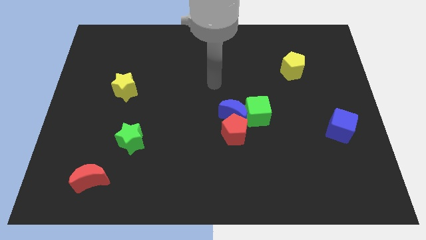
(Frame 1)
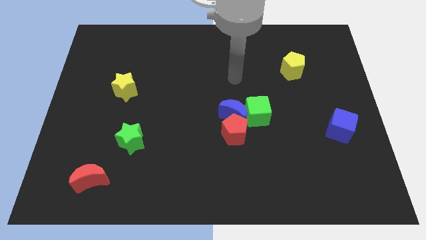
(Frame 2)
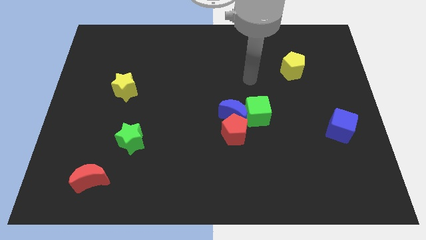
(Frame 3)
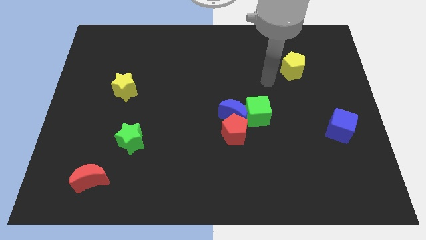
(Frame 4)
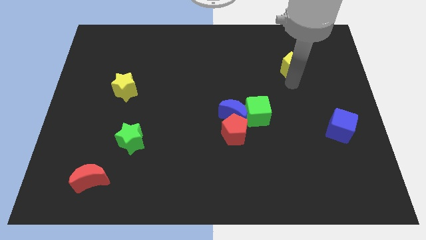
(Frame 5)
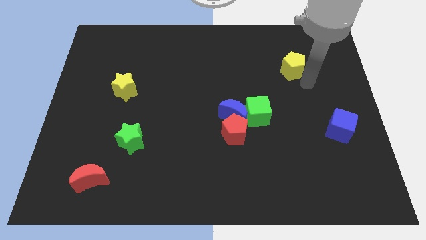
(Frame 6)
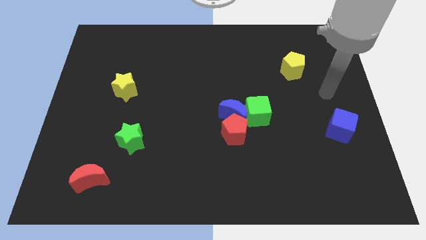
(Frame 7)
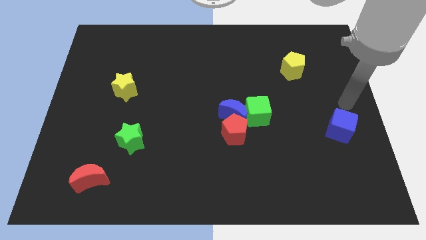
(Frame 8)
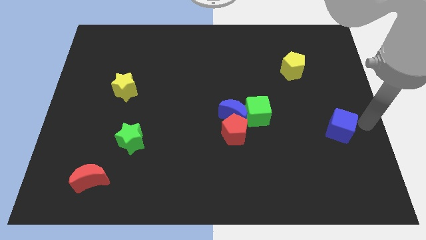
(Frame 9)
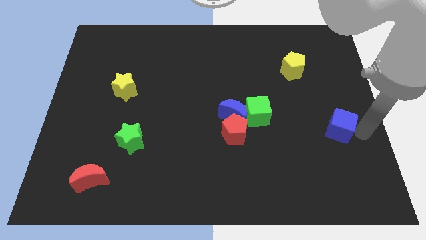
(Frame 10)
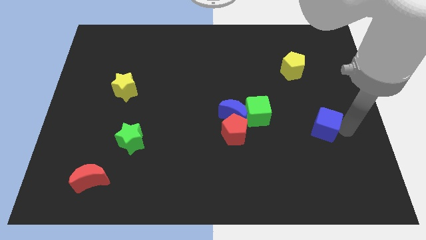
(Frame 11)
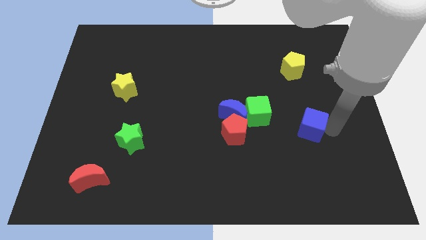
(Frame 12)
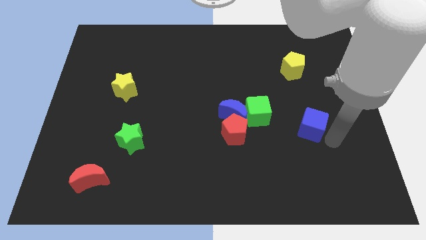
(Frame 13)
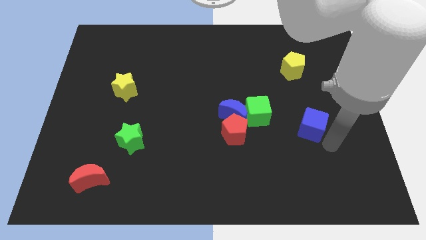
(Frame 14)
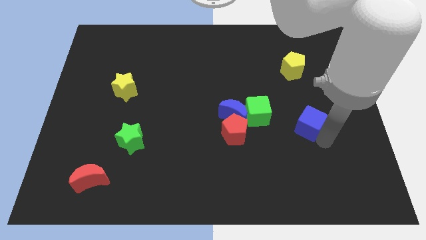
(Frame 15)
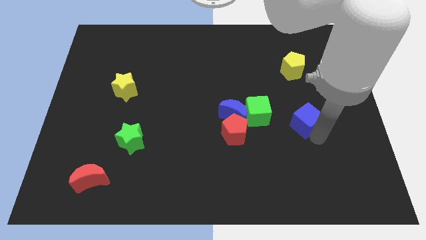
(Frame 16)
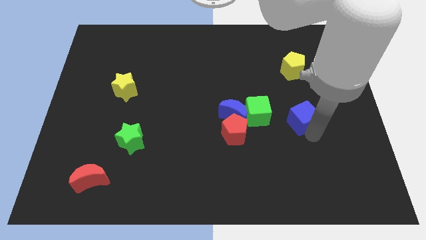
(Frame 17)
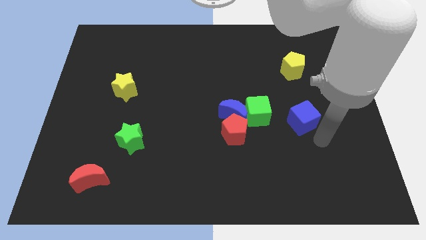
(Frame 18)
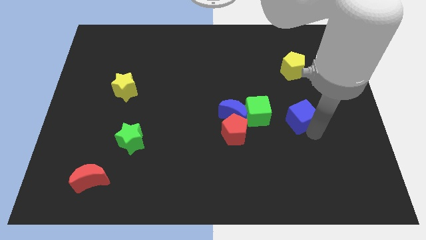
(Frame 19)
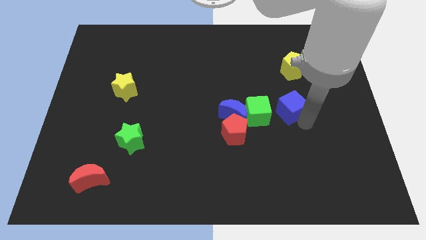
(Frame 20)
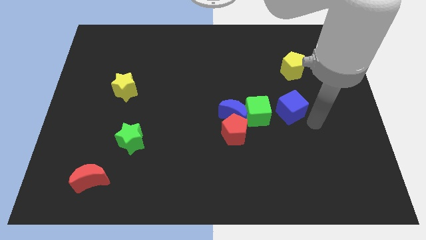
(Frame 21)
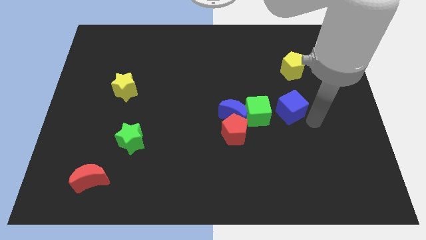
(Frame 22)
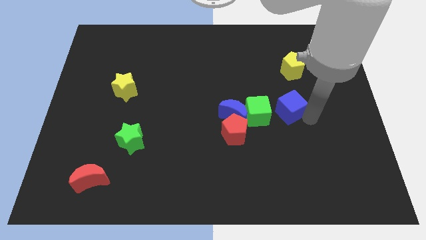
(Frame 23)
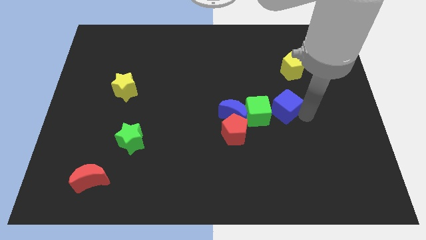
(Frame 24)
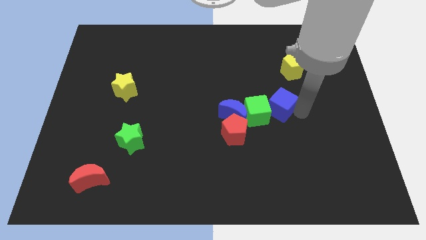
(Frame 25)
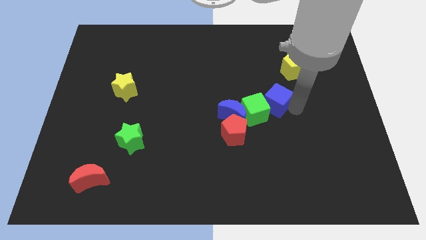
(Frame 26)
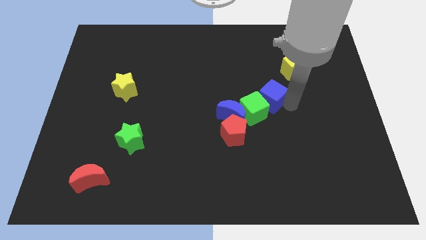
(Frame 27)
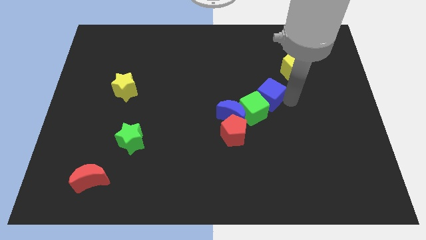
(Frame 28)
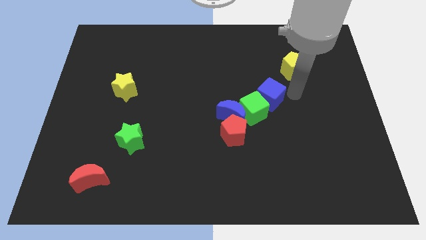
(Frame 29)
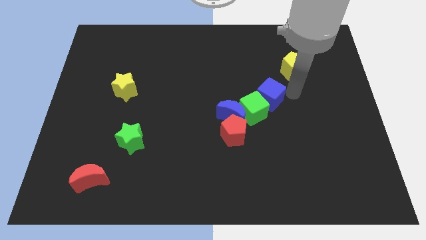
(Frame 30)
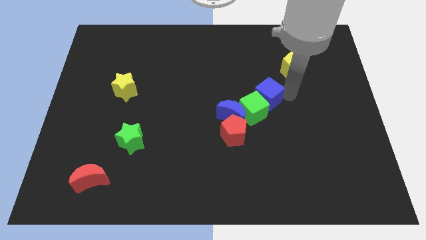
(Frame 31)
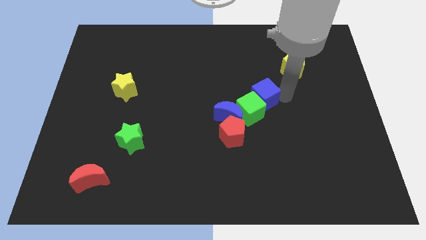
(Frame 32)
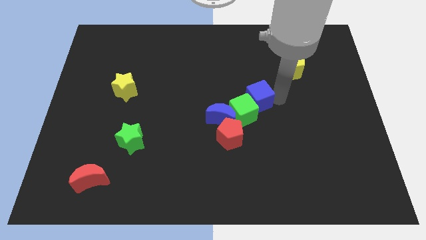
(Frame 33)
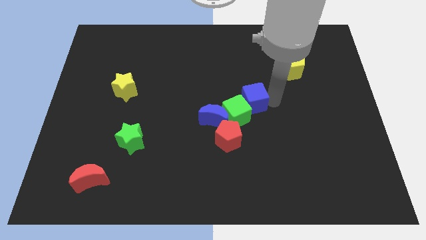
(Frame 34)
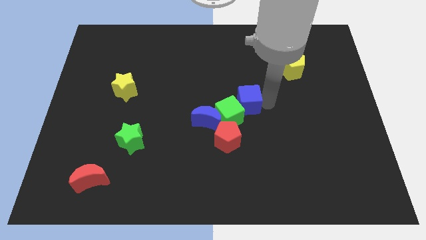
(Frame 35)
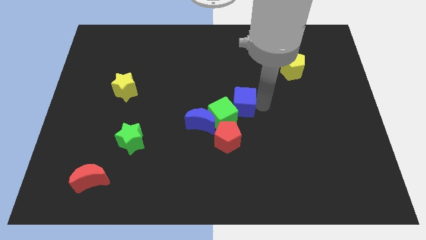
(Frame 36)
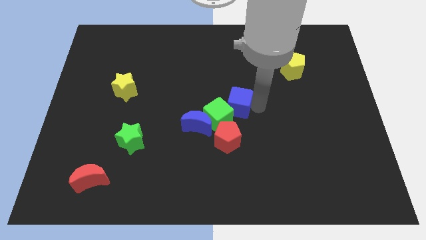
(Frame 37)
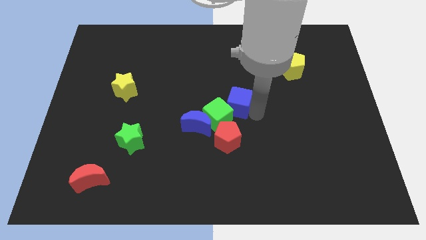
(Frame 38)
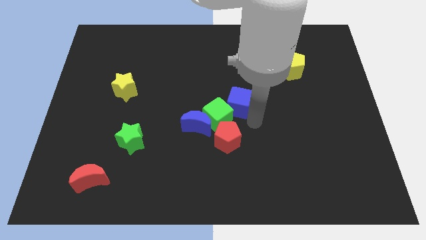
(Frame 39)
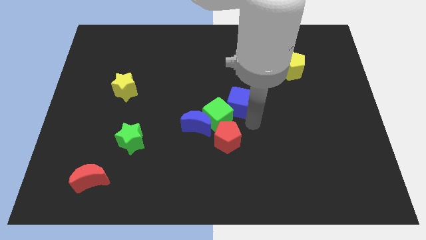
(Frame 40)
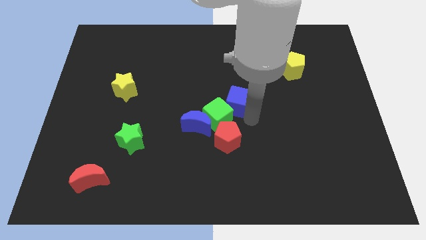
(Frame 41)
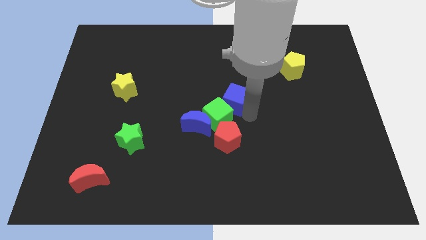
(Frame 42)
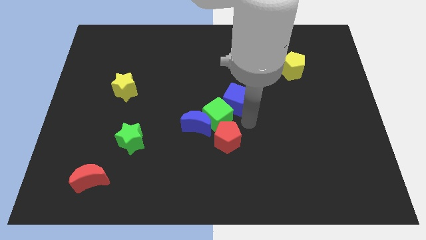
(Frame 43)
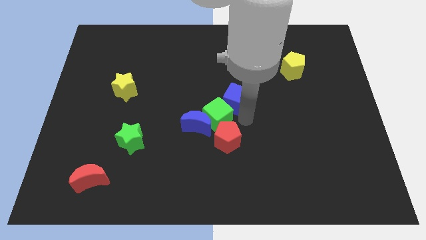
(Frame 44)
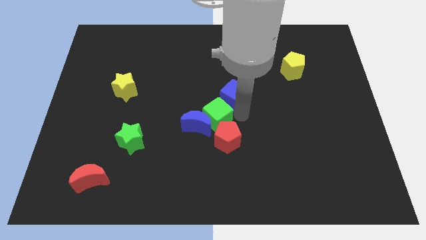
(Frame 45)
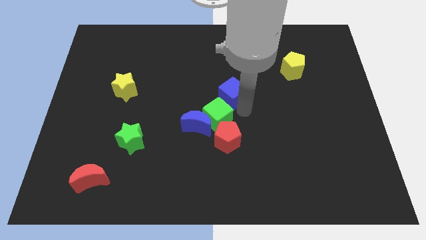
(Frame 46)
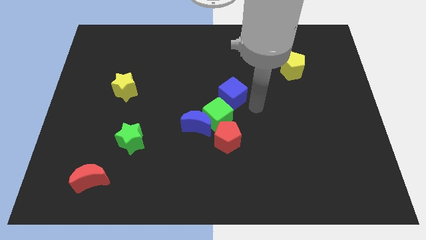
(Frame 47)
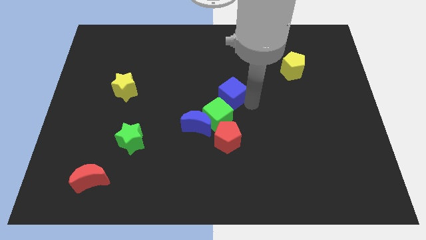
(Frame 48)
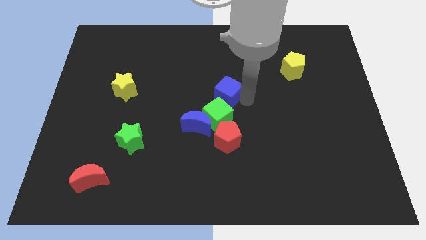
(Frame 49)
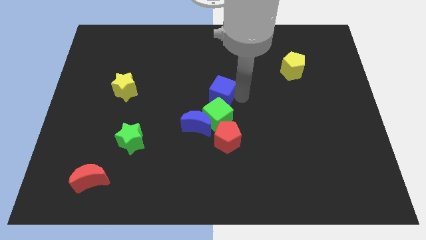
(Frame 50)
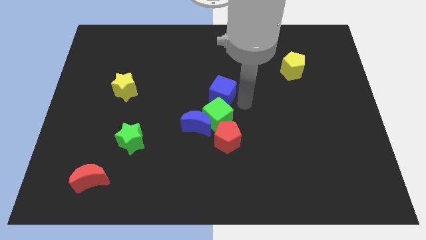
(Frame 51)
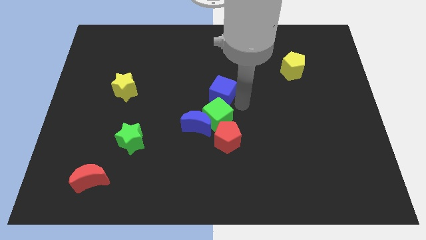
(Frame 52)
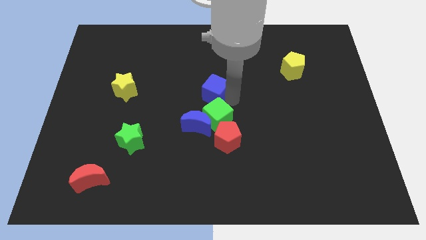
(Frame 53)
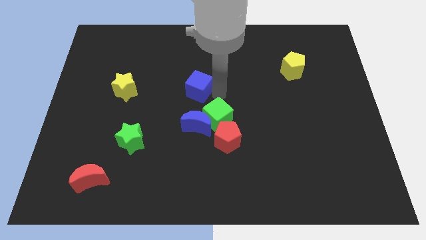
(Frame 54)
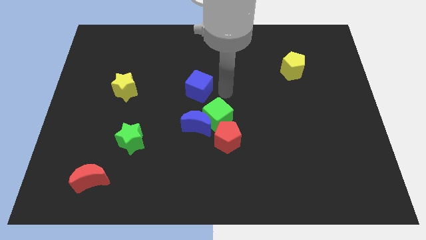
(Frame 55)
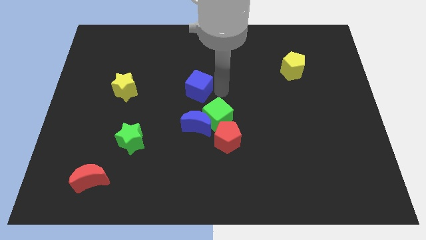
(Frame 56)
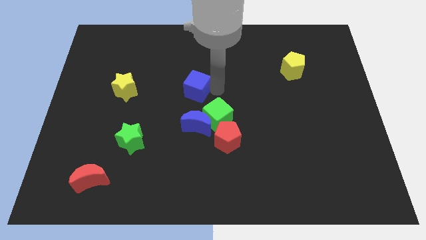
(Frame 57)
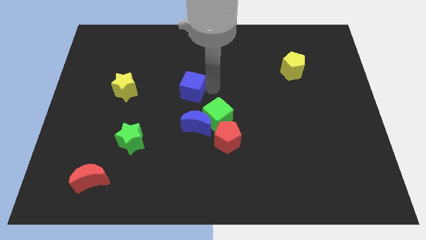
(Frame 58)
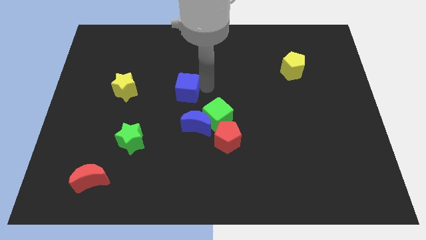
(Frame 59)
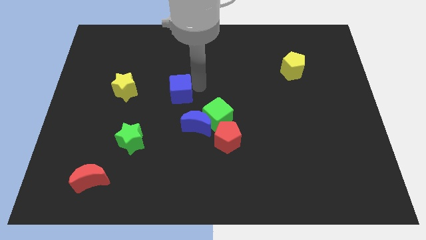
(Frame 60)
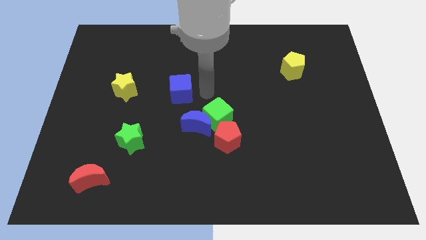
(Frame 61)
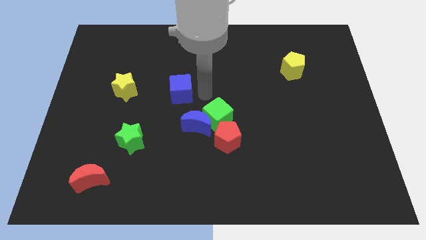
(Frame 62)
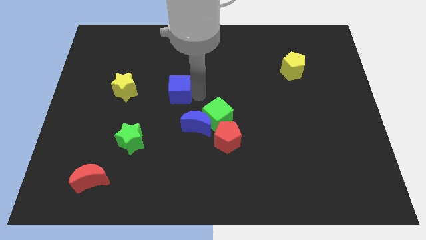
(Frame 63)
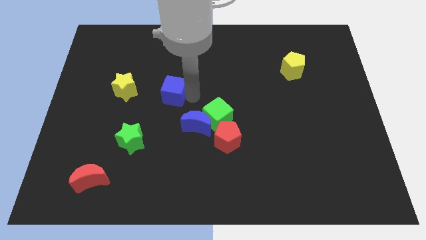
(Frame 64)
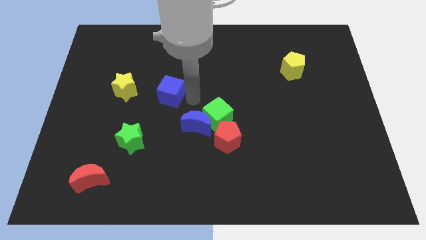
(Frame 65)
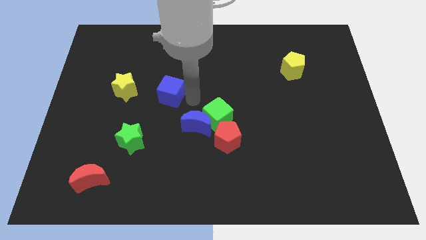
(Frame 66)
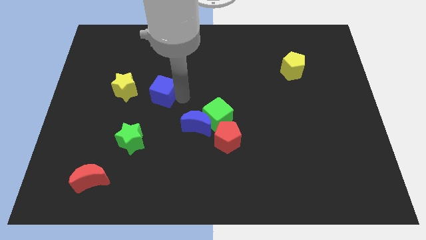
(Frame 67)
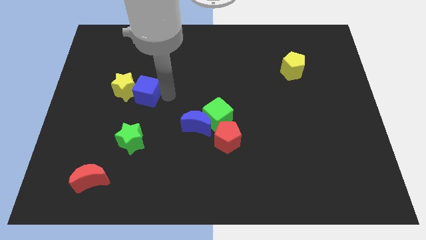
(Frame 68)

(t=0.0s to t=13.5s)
slide the blue cube towards the yellow star

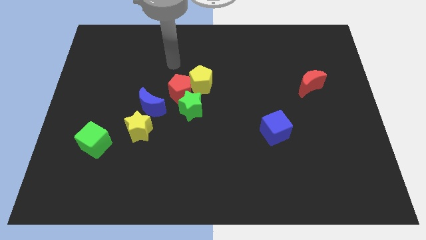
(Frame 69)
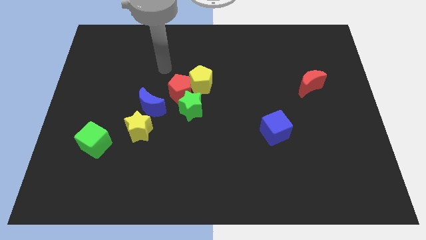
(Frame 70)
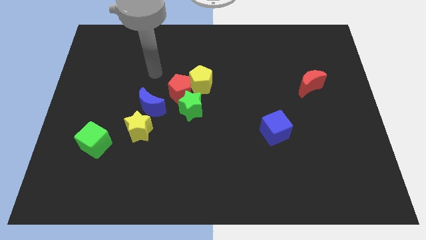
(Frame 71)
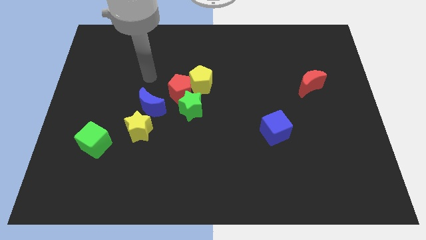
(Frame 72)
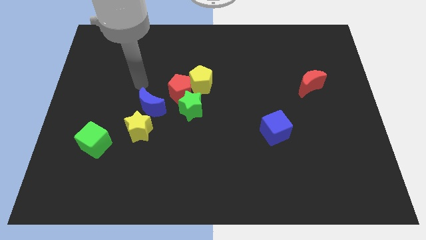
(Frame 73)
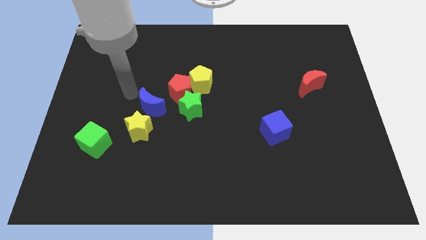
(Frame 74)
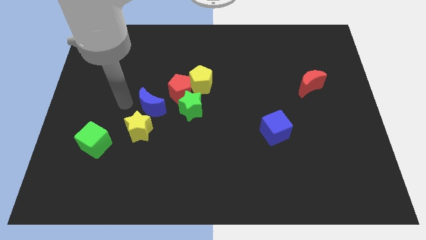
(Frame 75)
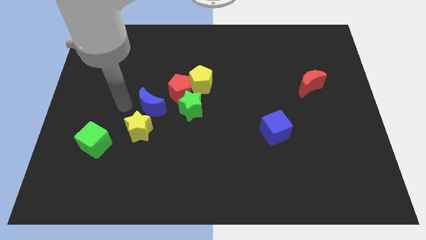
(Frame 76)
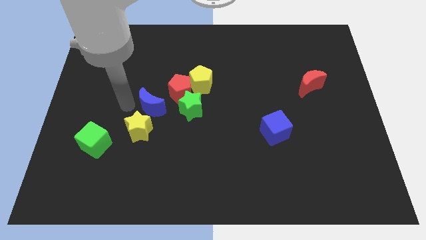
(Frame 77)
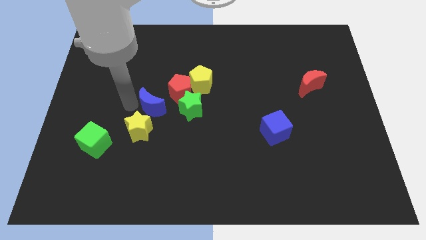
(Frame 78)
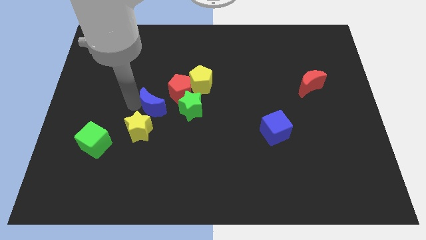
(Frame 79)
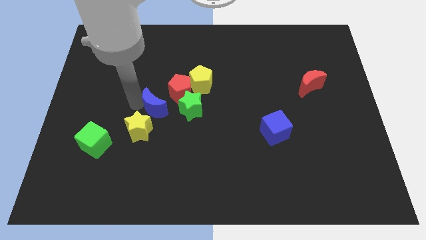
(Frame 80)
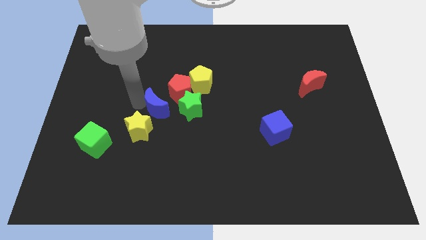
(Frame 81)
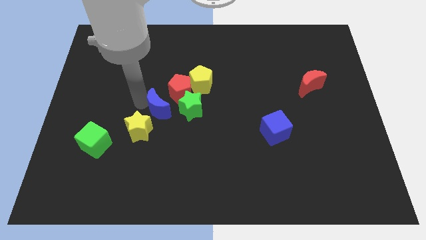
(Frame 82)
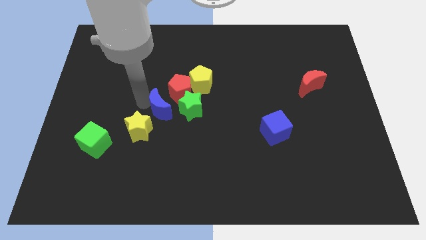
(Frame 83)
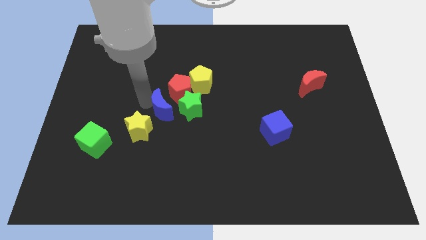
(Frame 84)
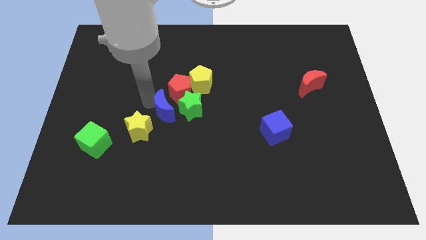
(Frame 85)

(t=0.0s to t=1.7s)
slide the blue moon next to the green star
